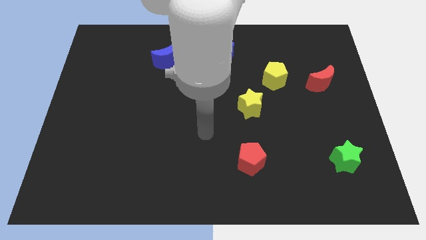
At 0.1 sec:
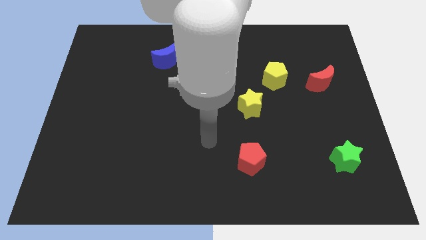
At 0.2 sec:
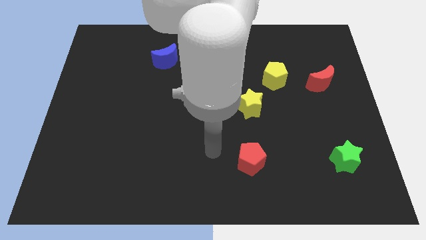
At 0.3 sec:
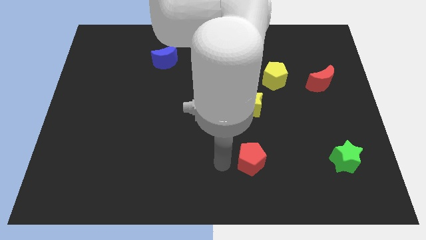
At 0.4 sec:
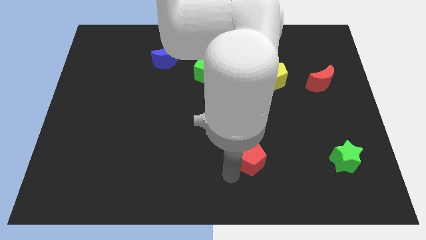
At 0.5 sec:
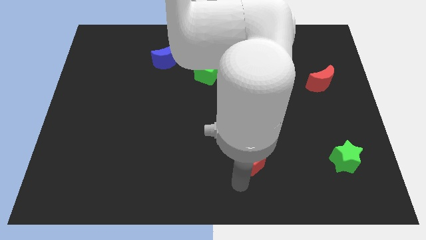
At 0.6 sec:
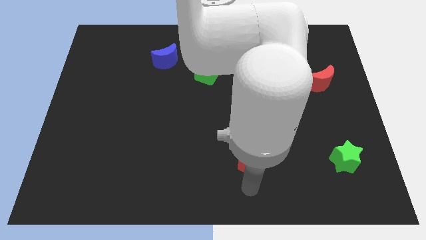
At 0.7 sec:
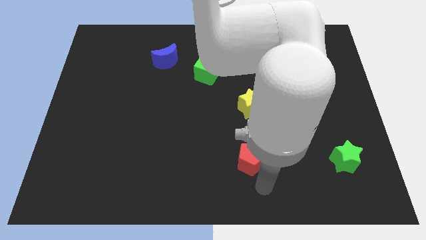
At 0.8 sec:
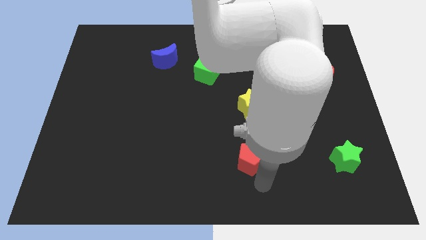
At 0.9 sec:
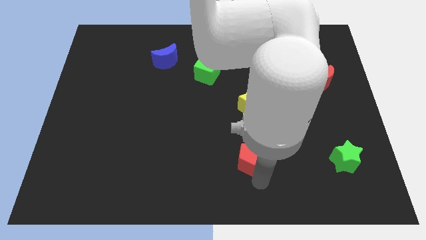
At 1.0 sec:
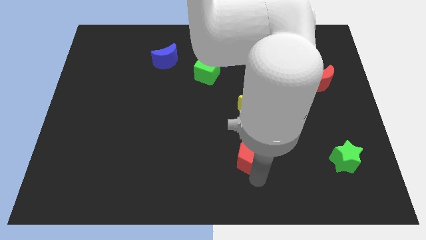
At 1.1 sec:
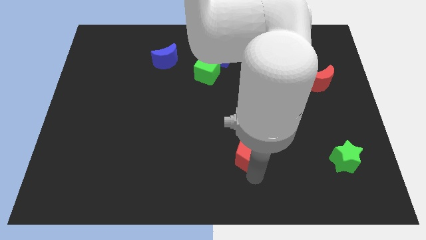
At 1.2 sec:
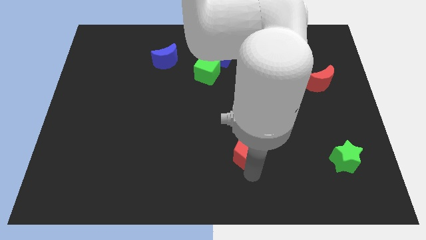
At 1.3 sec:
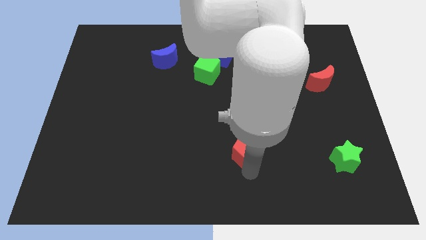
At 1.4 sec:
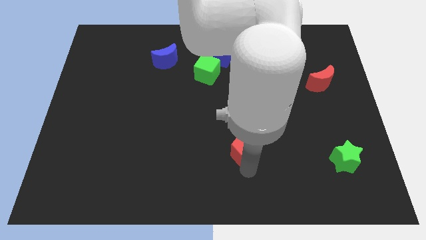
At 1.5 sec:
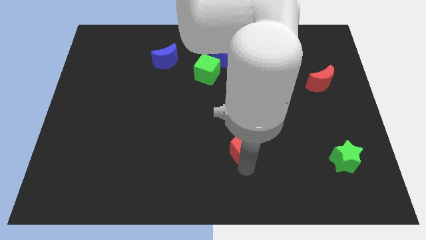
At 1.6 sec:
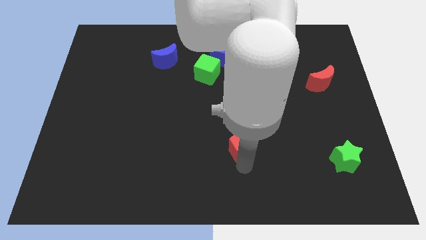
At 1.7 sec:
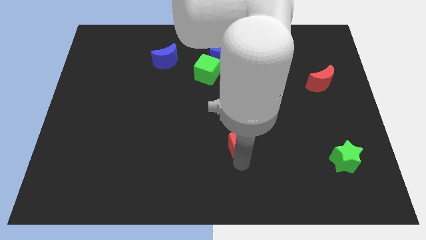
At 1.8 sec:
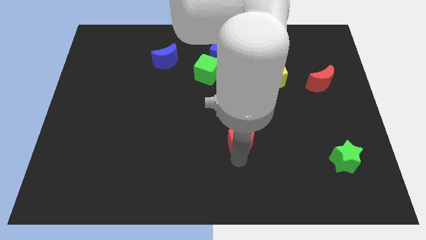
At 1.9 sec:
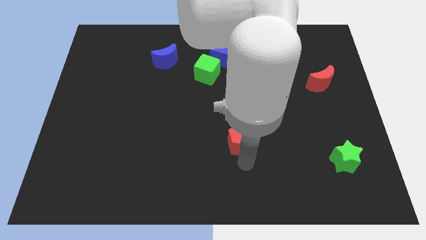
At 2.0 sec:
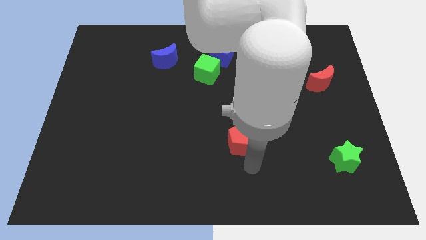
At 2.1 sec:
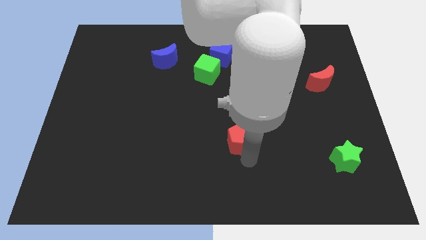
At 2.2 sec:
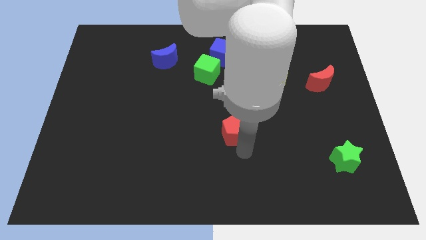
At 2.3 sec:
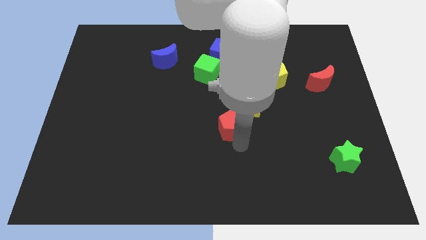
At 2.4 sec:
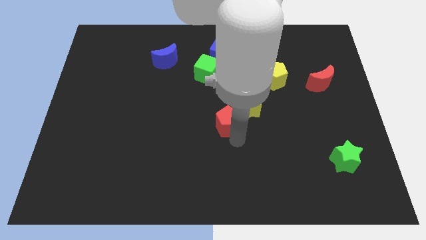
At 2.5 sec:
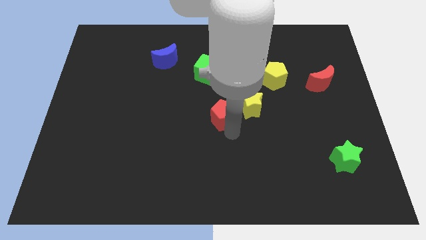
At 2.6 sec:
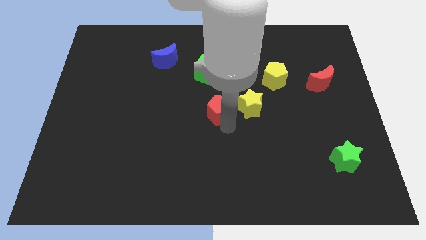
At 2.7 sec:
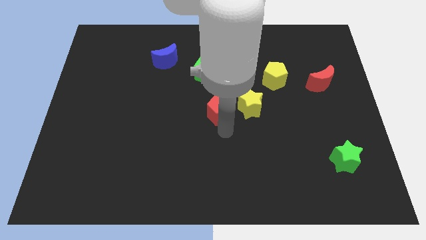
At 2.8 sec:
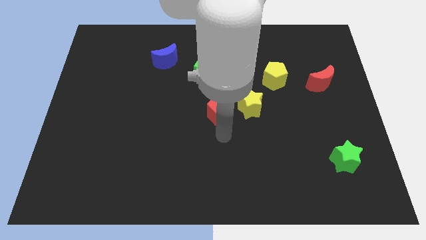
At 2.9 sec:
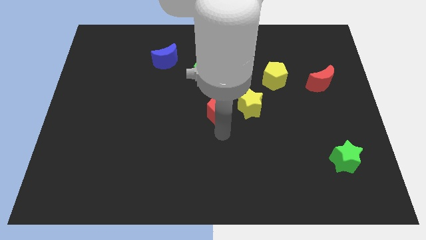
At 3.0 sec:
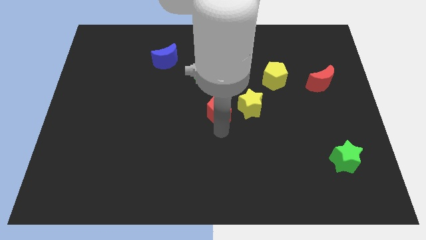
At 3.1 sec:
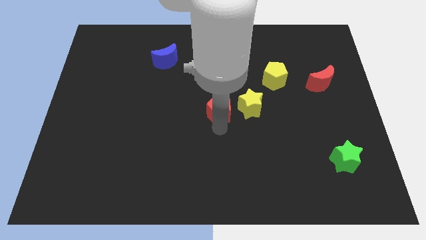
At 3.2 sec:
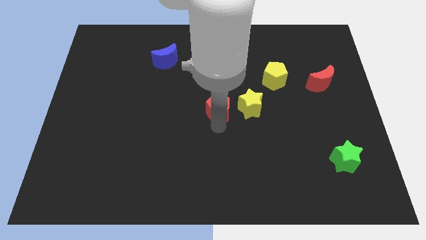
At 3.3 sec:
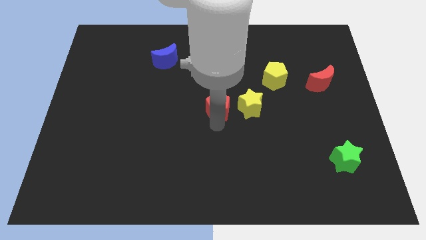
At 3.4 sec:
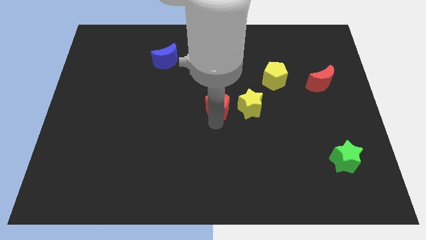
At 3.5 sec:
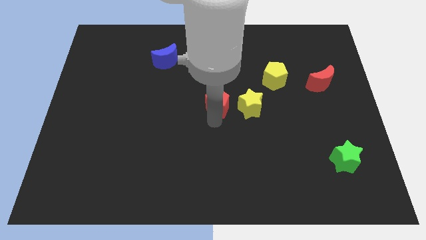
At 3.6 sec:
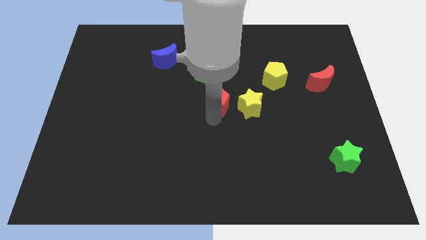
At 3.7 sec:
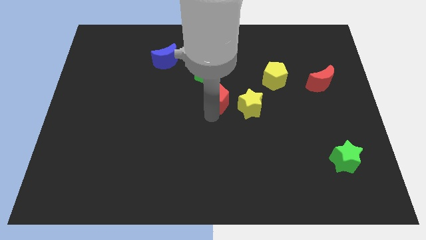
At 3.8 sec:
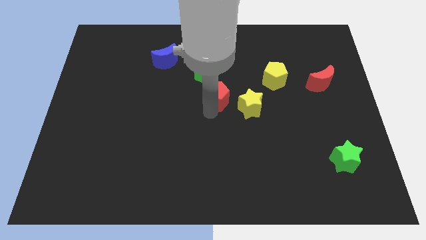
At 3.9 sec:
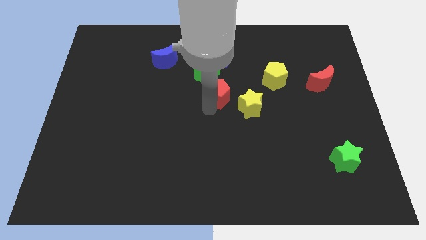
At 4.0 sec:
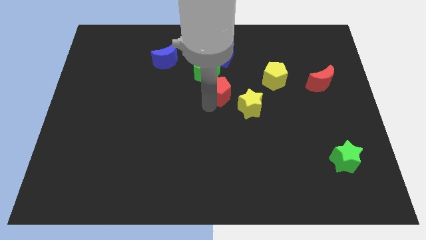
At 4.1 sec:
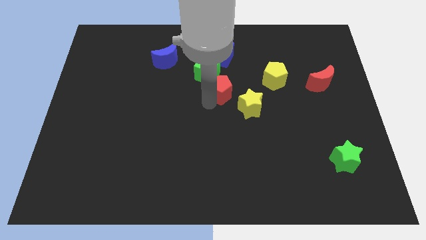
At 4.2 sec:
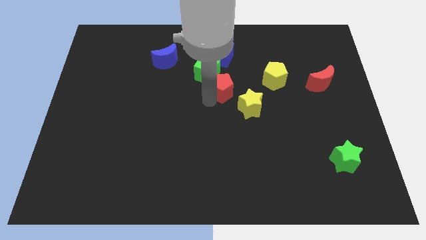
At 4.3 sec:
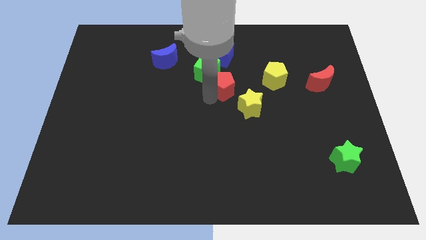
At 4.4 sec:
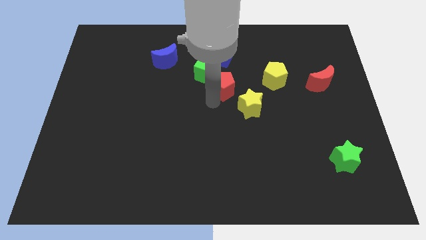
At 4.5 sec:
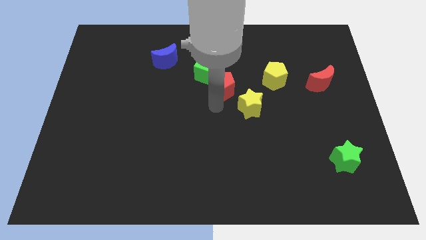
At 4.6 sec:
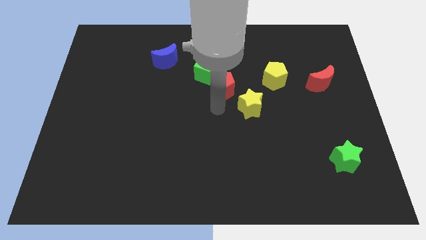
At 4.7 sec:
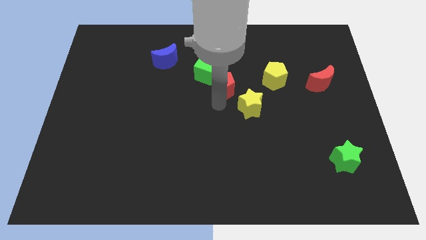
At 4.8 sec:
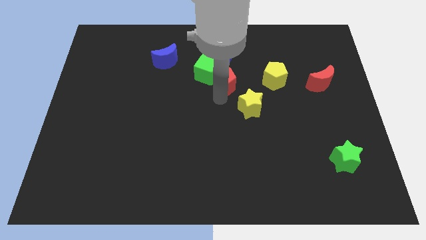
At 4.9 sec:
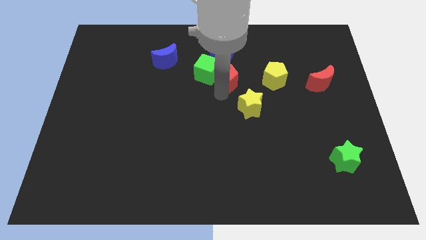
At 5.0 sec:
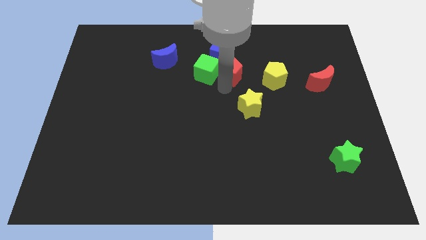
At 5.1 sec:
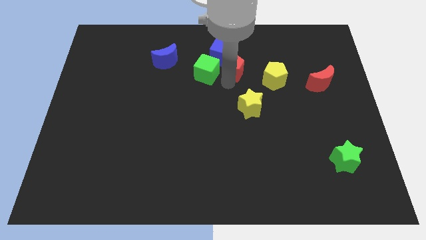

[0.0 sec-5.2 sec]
put the red pentagon to the blue cube
